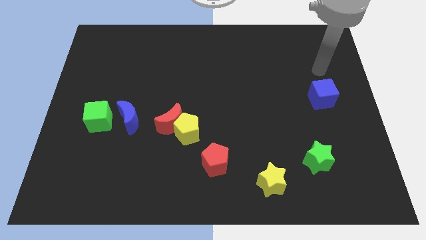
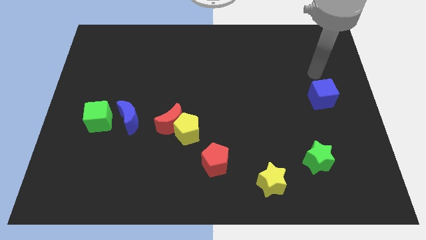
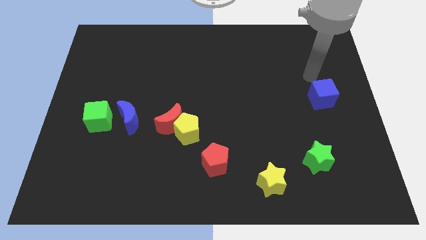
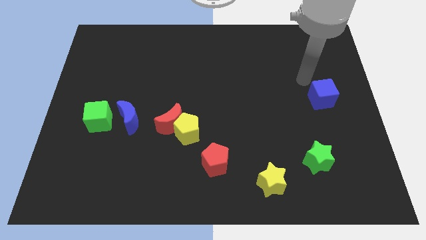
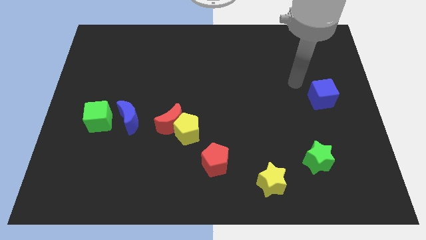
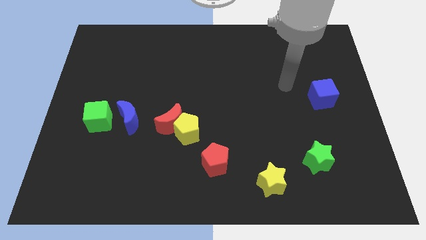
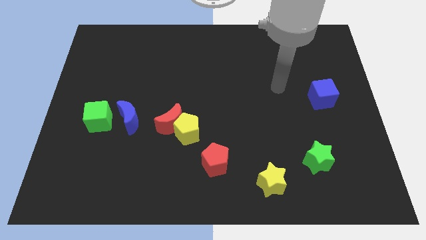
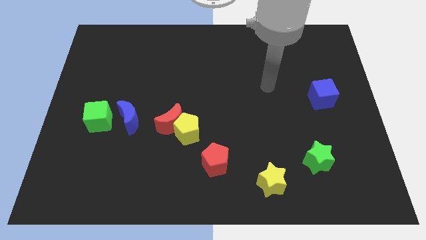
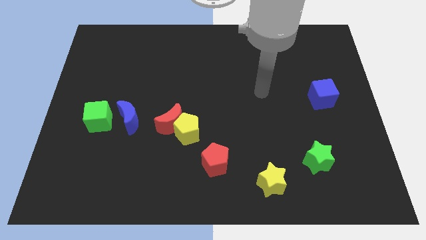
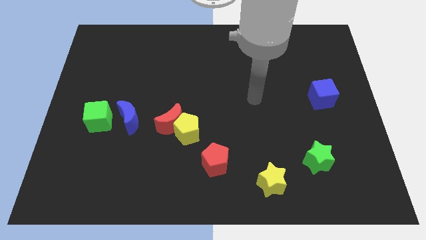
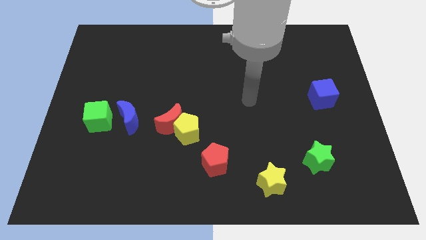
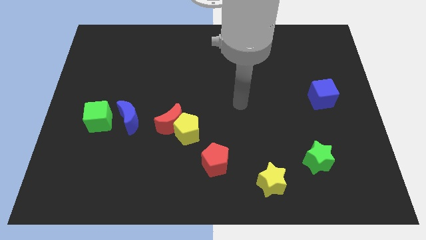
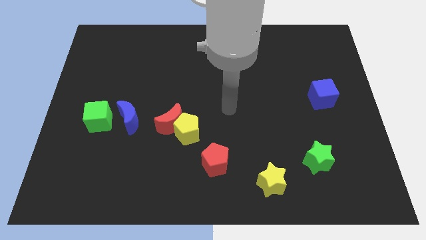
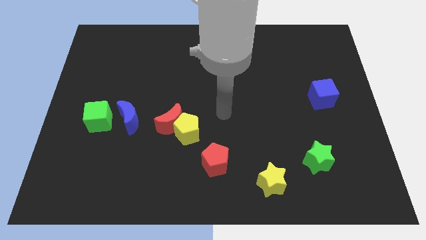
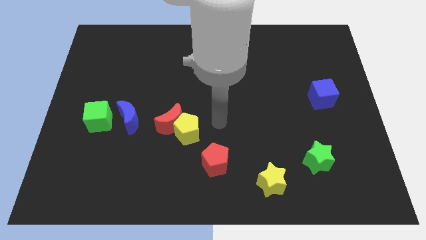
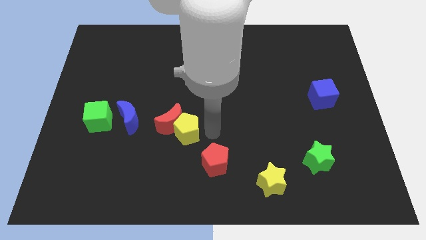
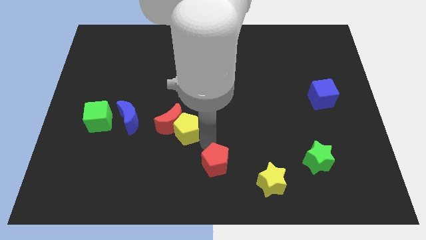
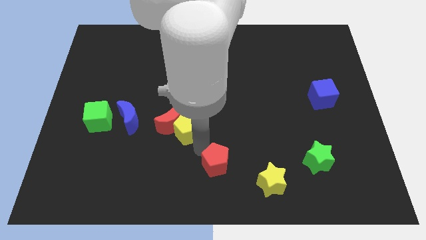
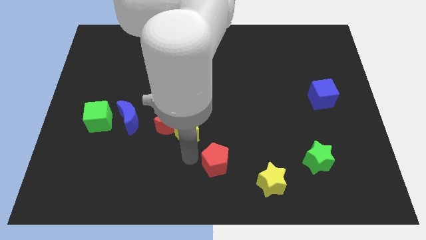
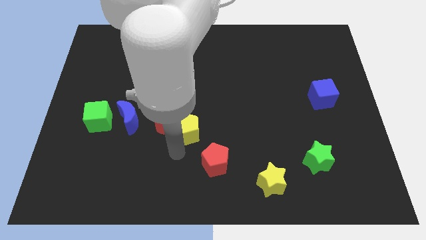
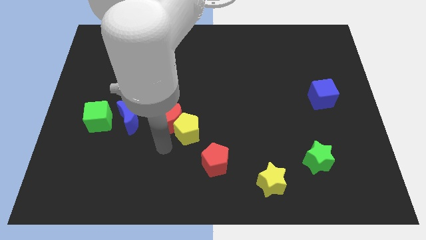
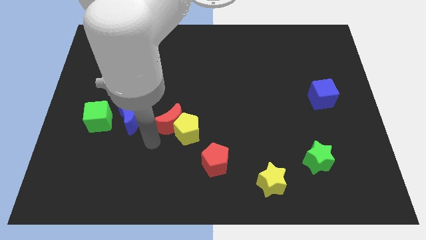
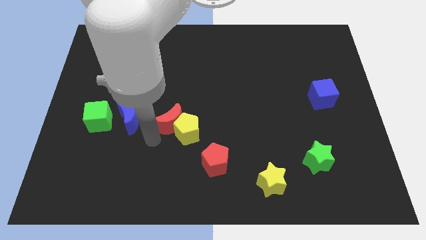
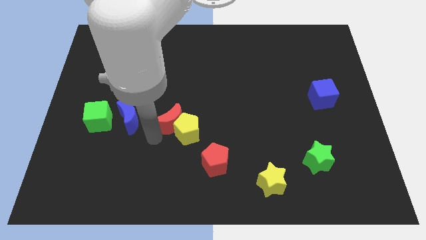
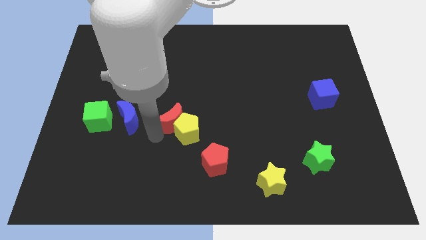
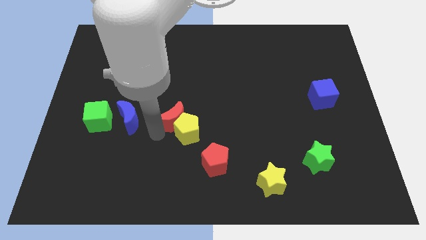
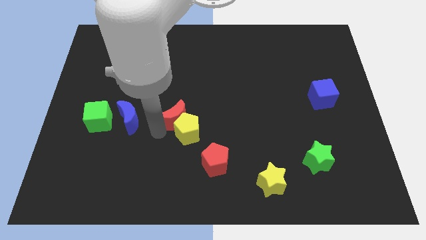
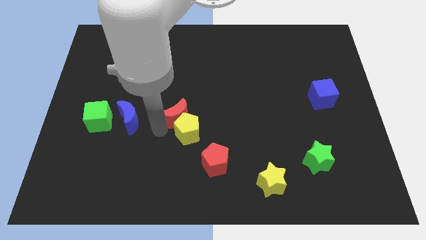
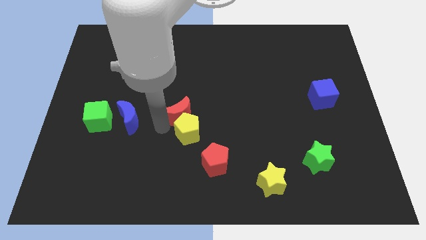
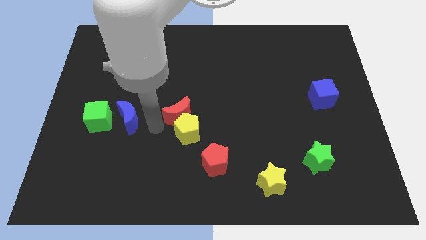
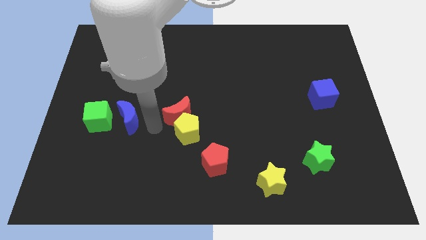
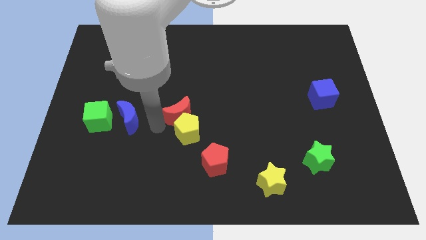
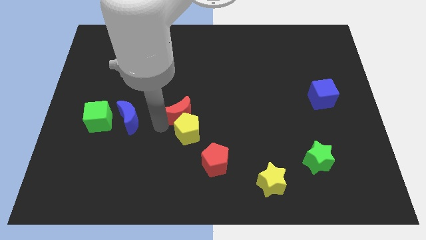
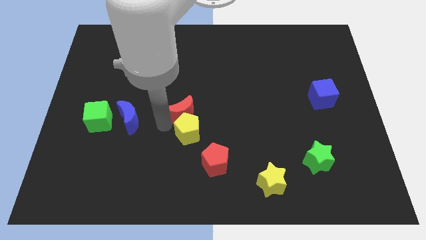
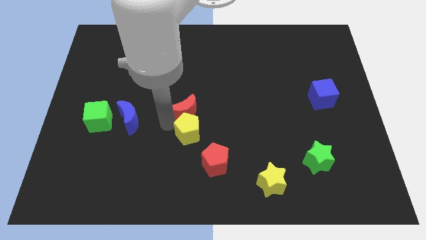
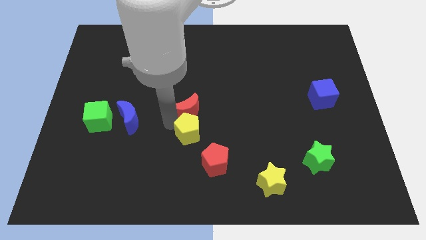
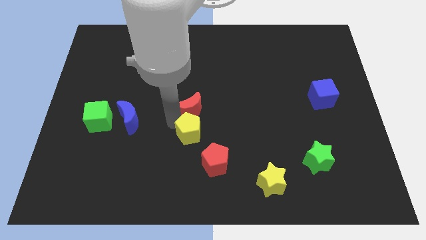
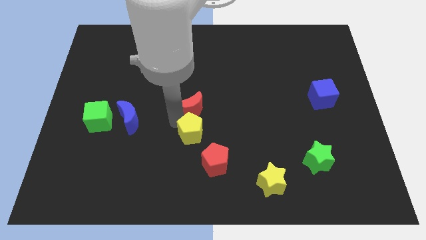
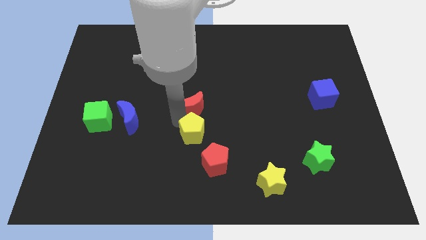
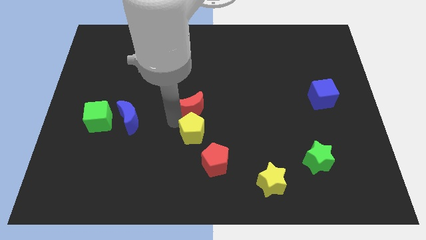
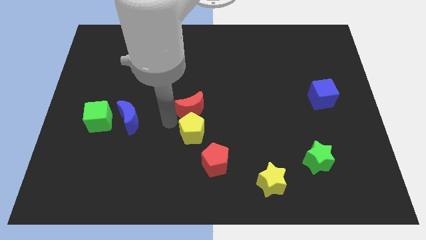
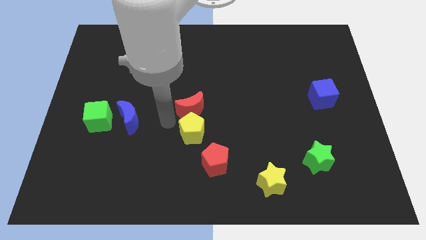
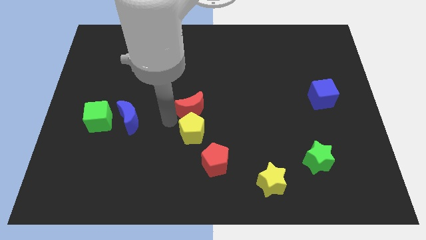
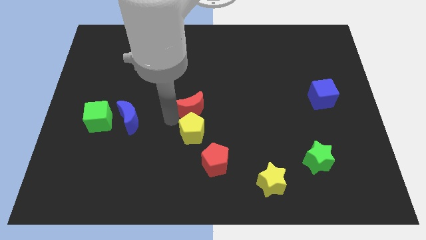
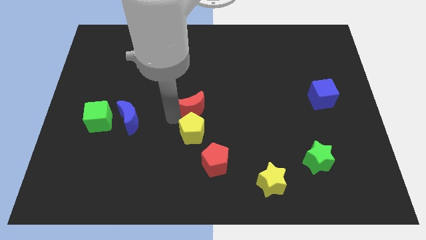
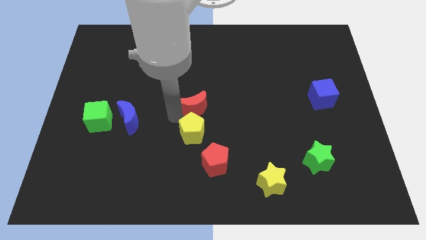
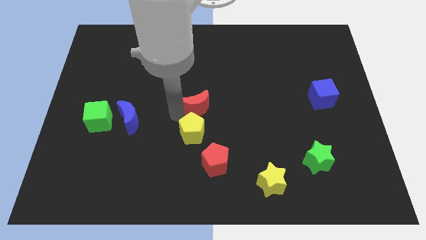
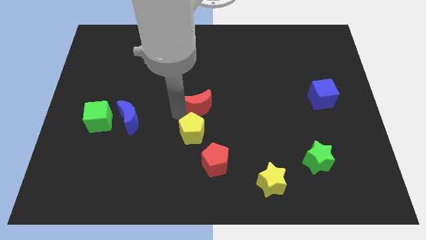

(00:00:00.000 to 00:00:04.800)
move the red moon away from the yellow pentagon and blue moon

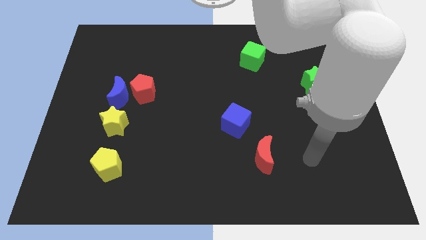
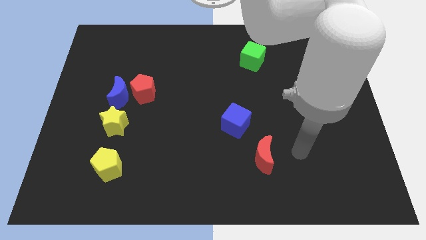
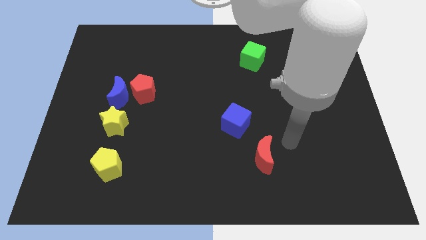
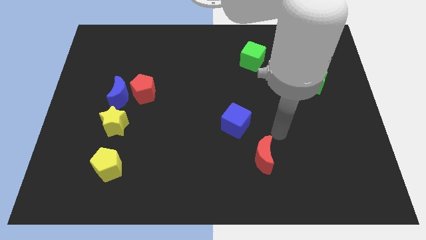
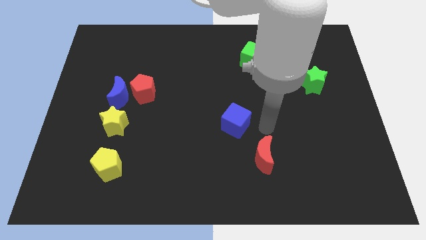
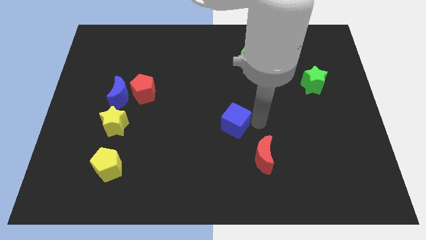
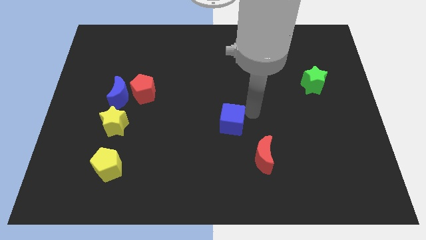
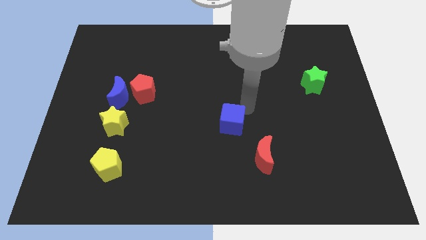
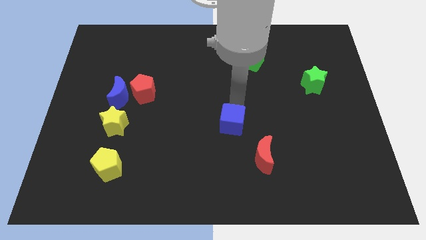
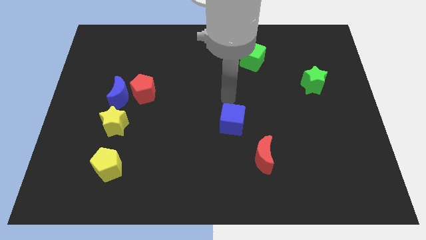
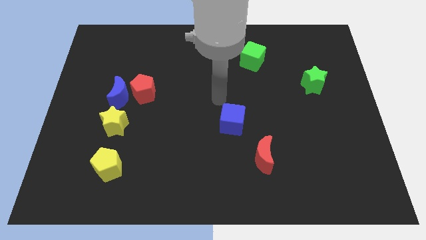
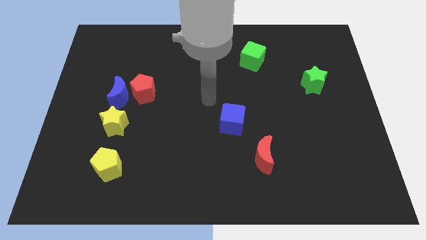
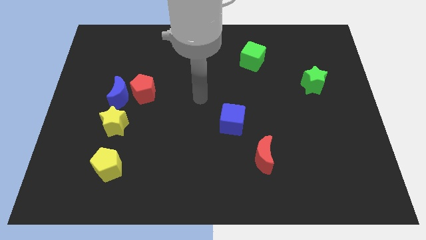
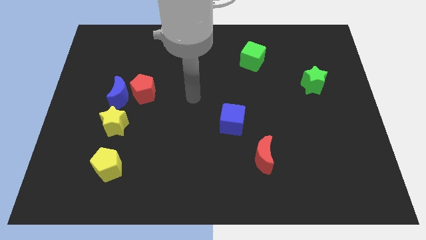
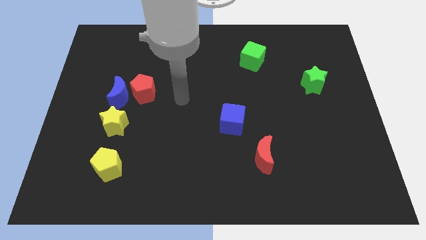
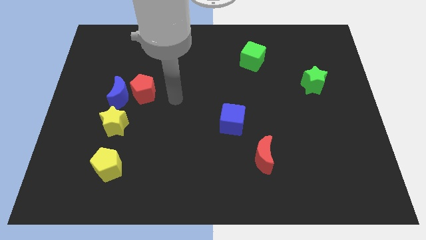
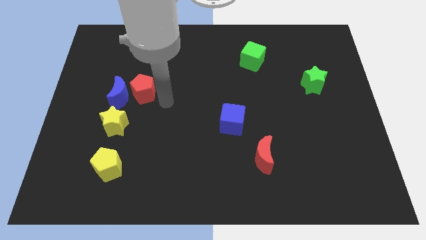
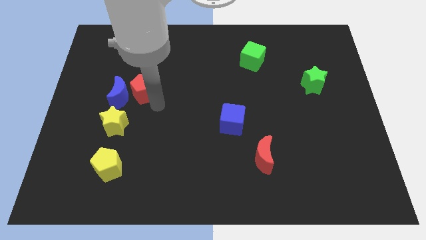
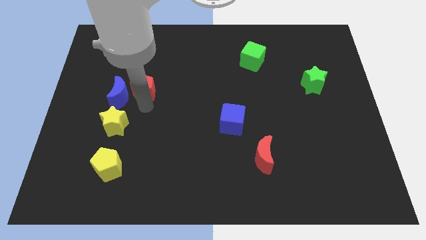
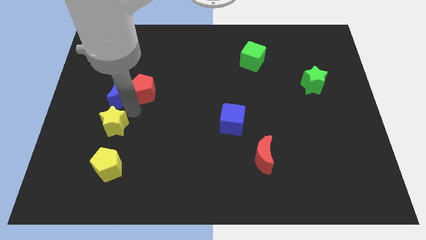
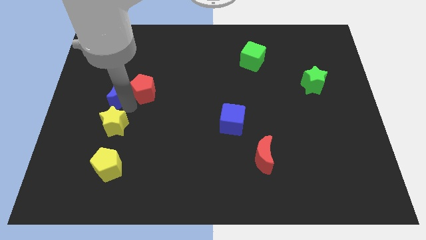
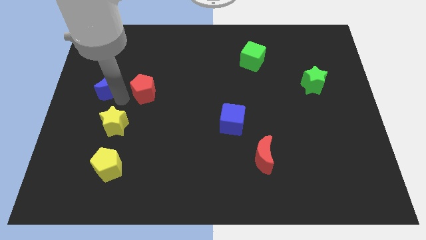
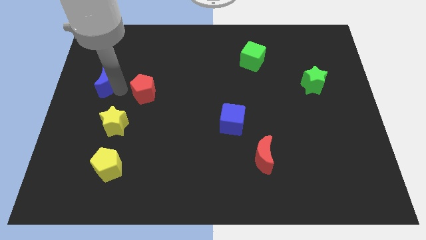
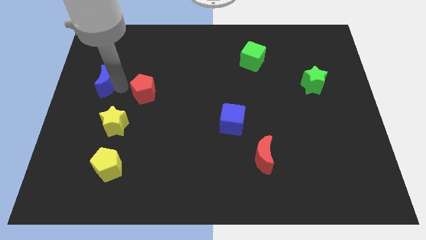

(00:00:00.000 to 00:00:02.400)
separate the red pentagon from the blue moon

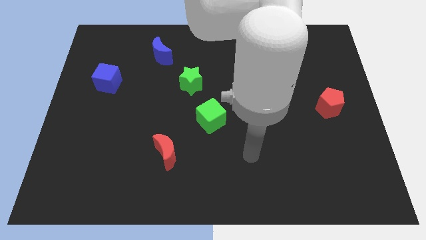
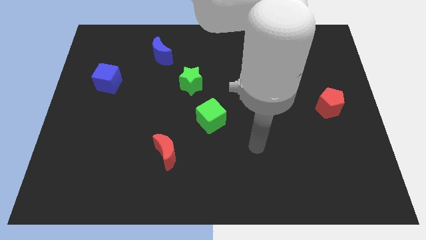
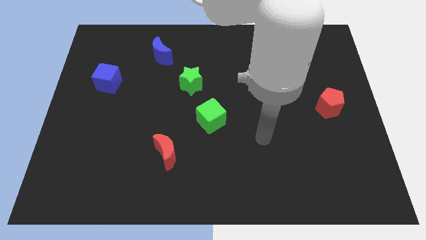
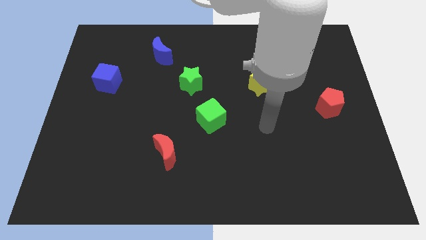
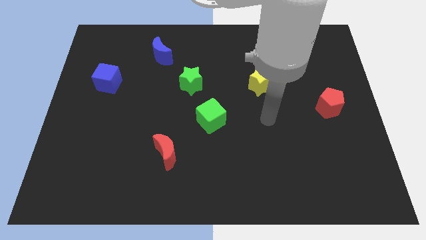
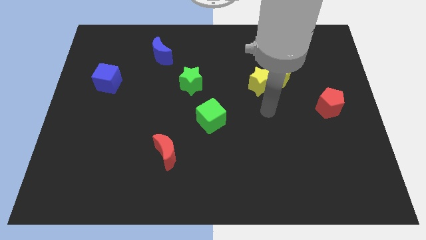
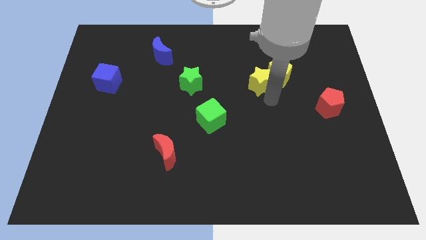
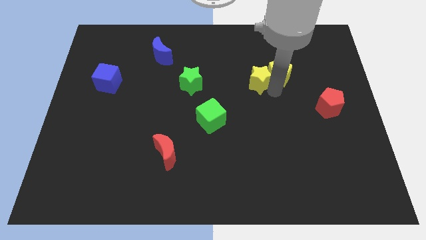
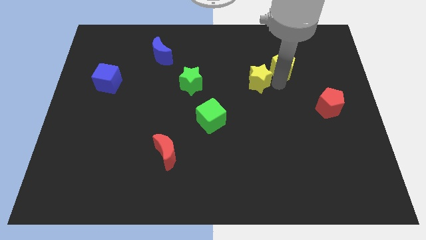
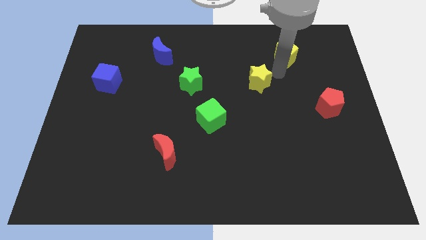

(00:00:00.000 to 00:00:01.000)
pull the yellow star apart from the yellow pentagon

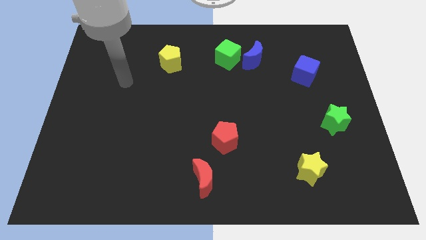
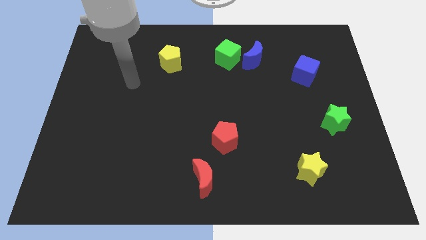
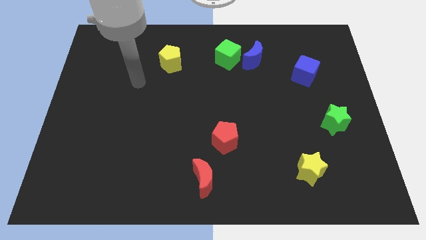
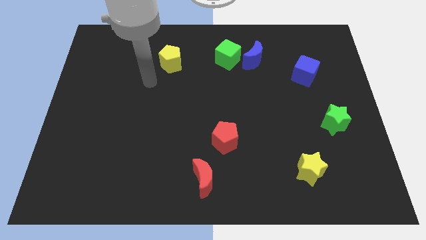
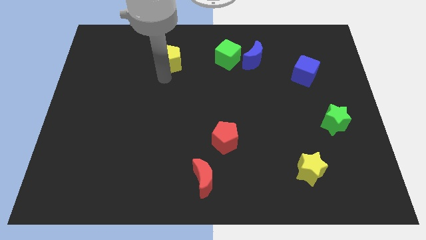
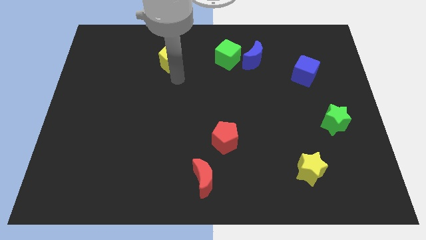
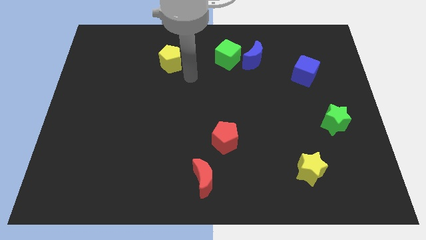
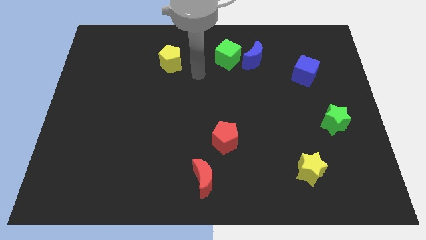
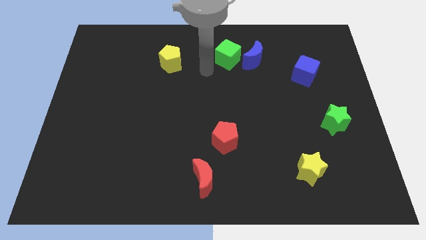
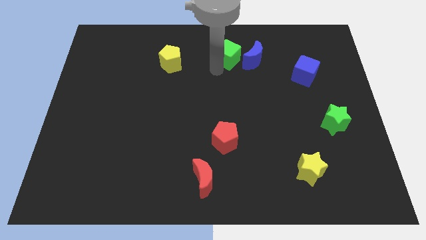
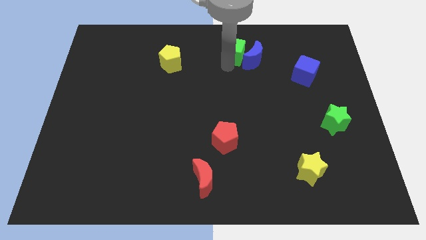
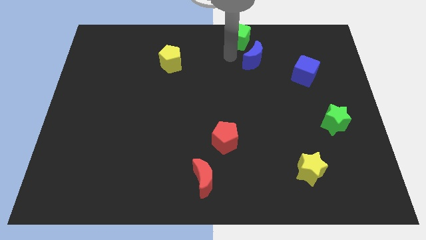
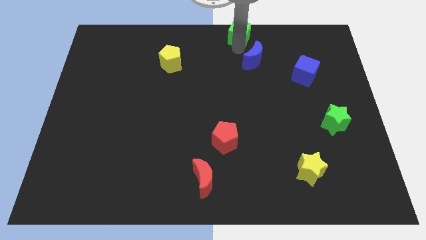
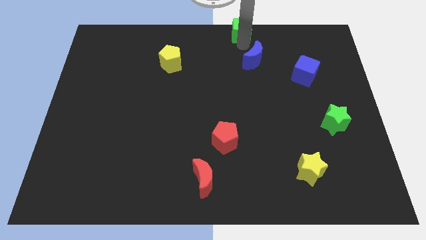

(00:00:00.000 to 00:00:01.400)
move the blue moon away from the green cube
